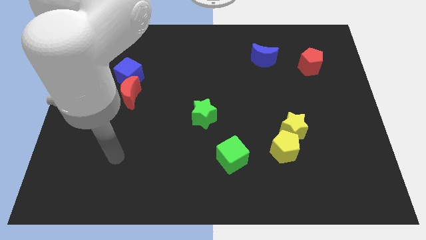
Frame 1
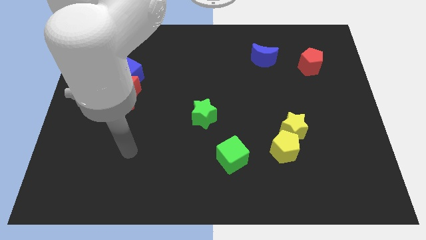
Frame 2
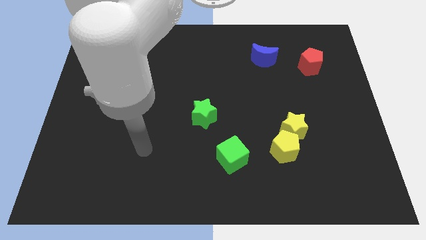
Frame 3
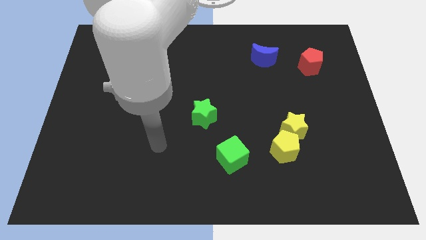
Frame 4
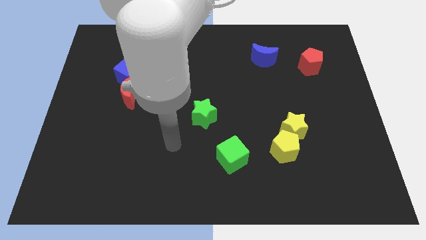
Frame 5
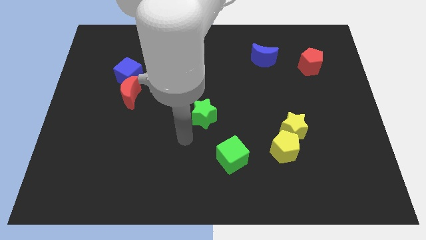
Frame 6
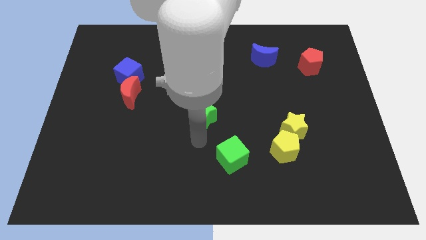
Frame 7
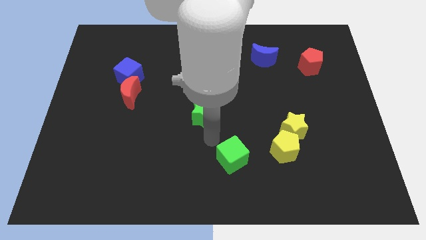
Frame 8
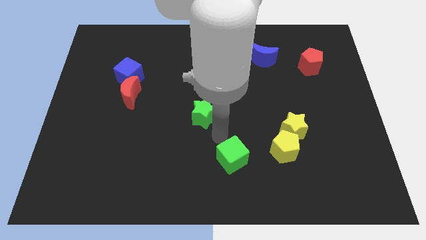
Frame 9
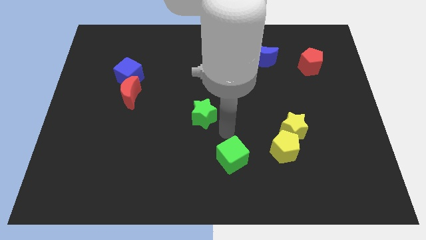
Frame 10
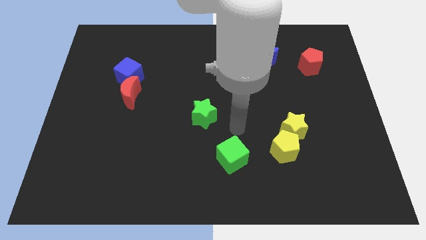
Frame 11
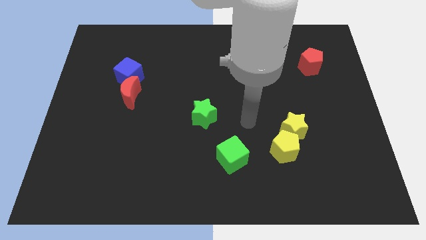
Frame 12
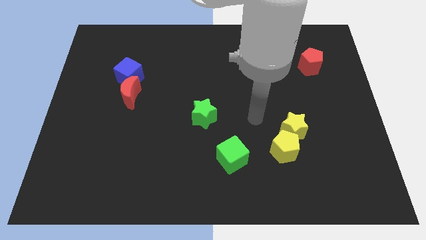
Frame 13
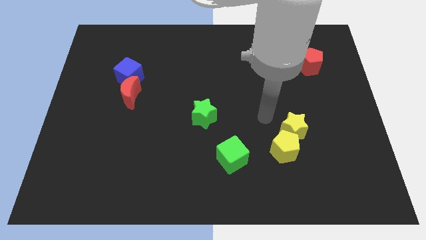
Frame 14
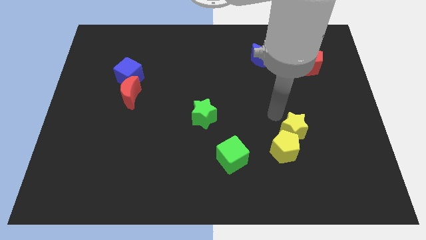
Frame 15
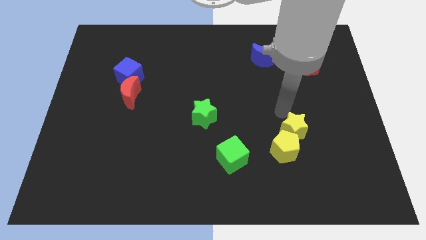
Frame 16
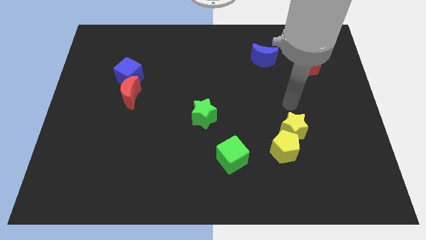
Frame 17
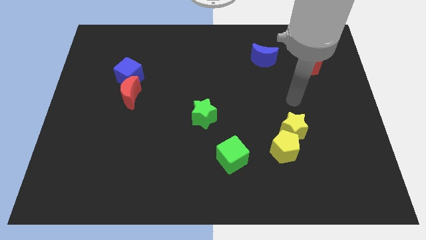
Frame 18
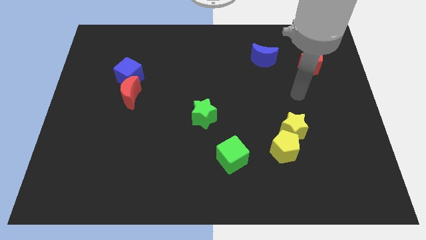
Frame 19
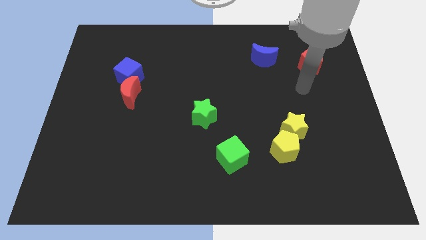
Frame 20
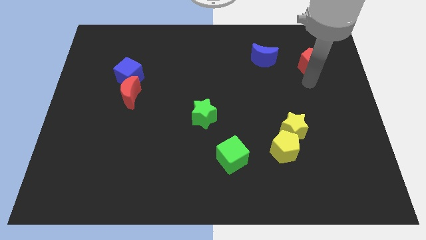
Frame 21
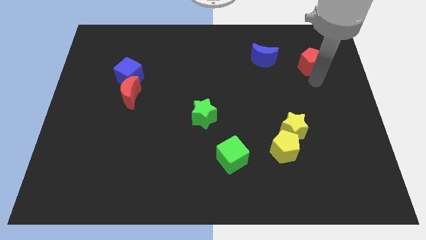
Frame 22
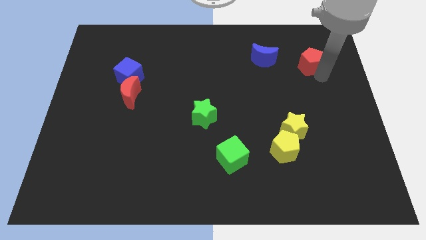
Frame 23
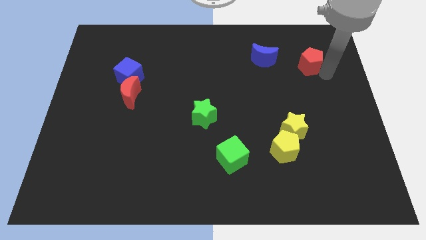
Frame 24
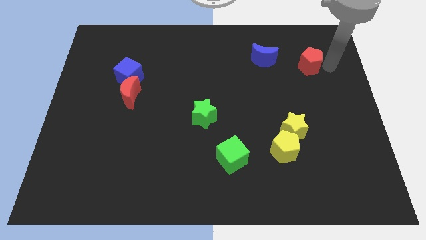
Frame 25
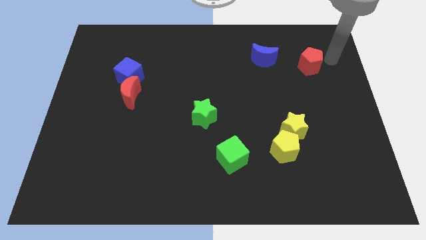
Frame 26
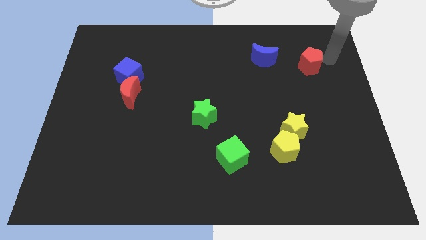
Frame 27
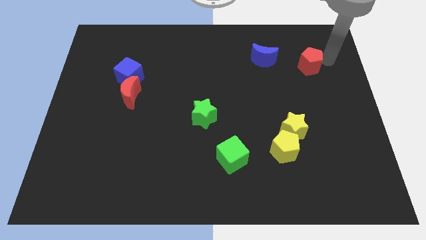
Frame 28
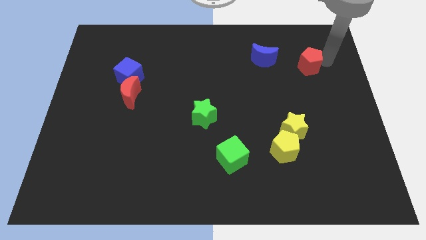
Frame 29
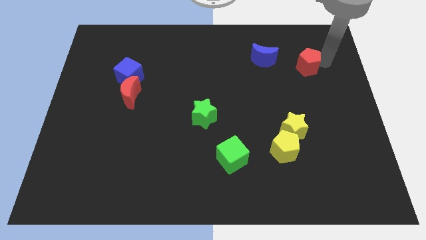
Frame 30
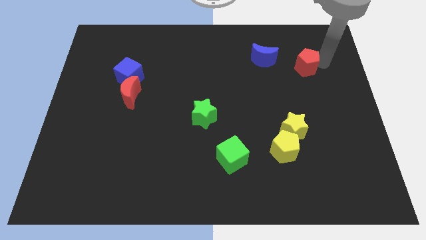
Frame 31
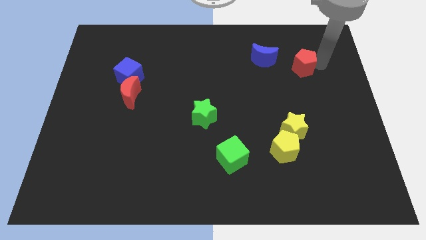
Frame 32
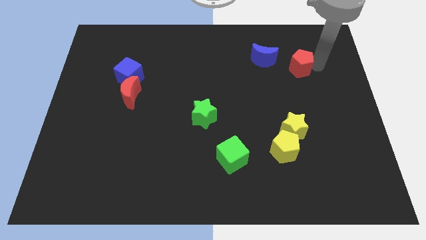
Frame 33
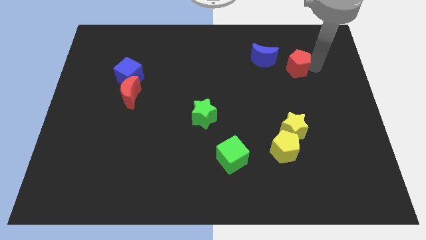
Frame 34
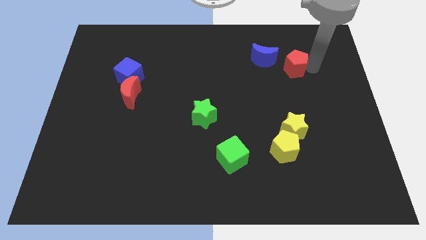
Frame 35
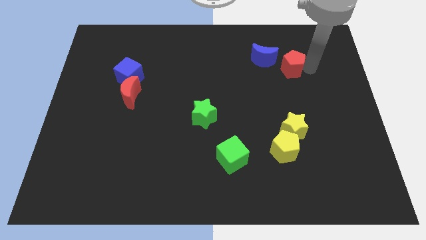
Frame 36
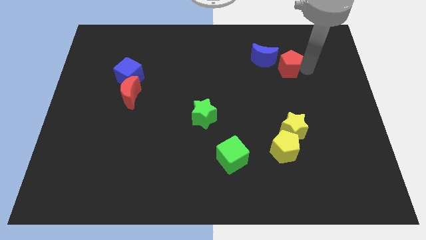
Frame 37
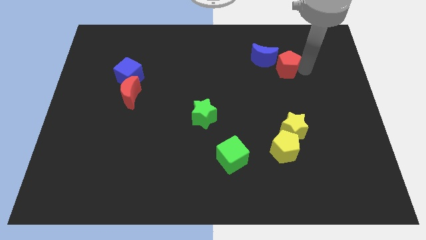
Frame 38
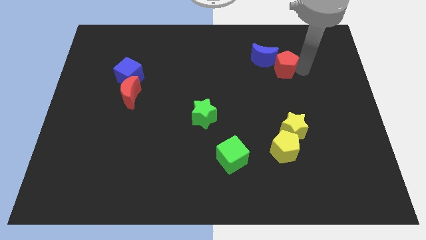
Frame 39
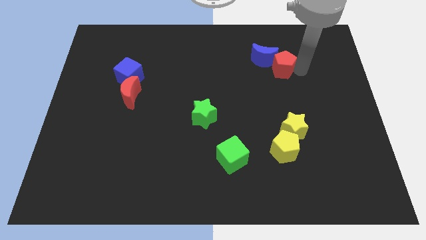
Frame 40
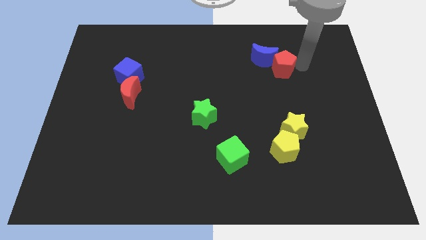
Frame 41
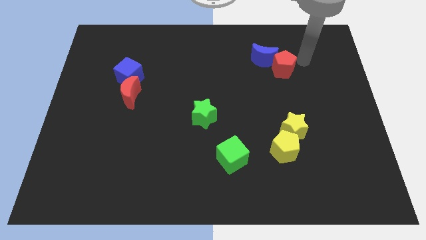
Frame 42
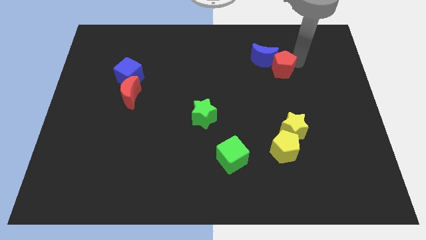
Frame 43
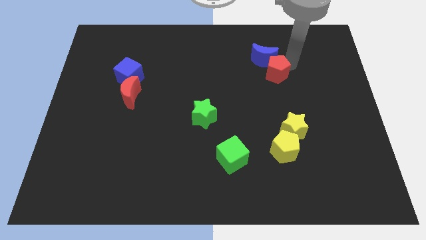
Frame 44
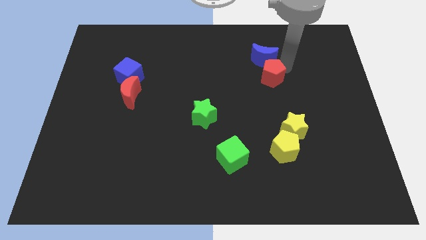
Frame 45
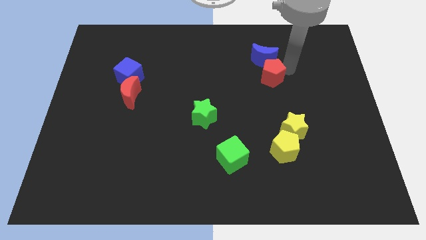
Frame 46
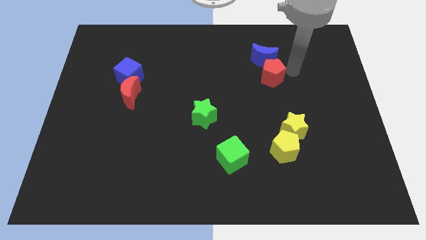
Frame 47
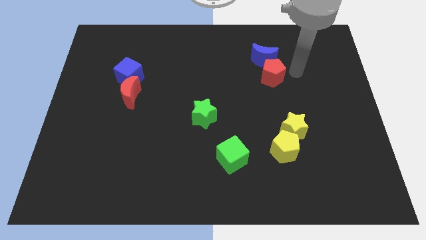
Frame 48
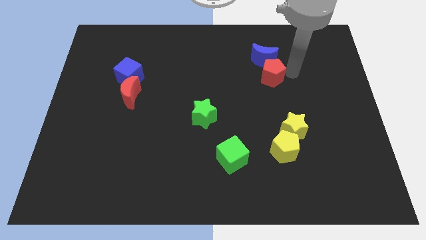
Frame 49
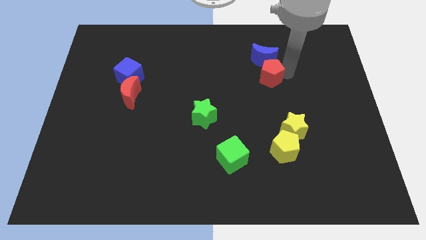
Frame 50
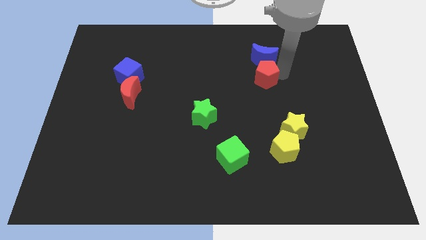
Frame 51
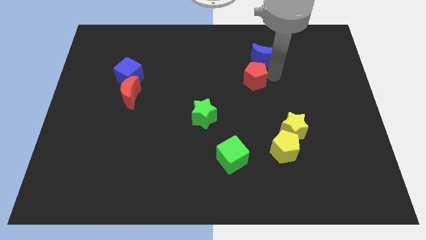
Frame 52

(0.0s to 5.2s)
push the red pentagon to the center

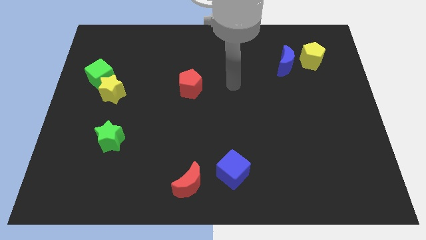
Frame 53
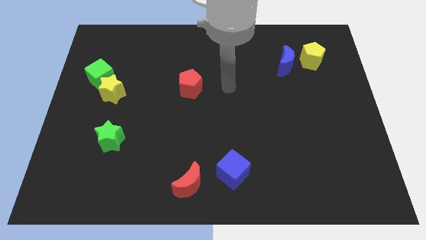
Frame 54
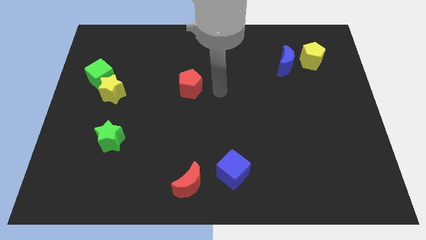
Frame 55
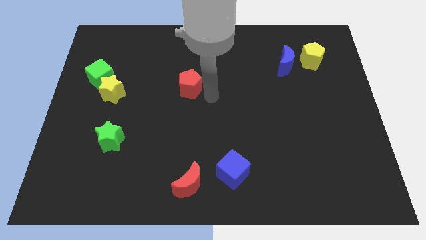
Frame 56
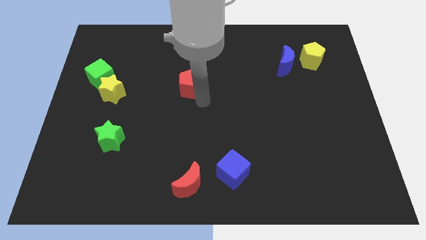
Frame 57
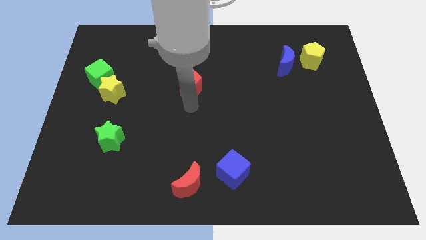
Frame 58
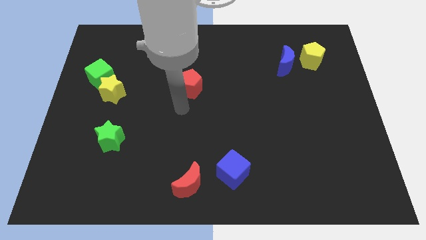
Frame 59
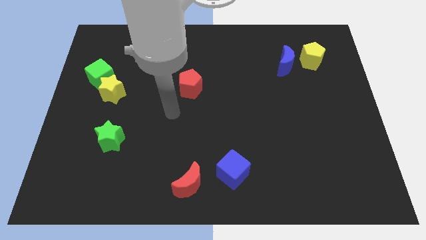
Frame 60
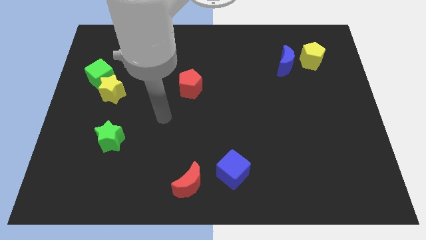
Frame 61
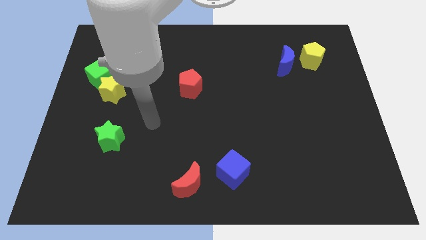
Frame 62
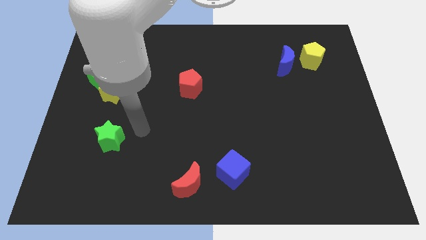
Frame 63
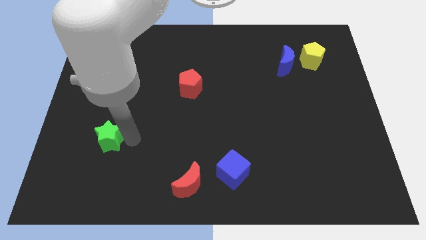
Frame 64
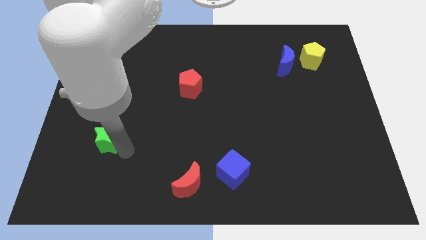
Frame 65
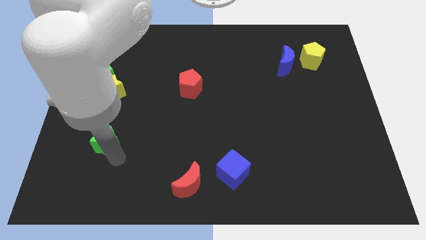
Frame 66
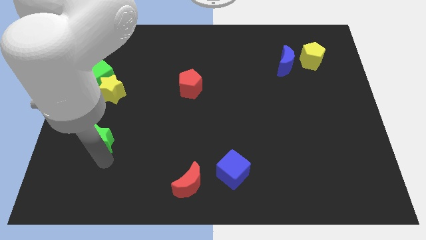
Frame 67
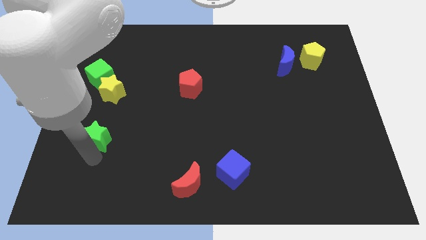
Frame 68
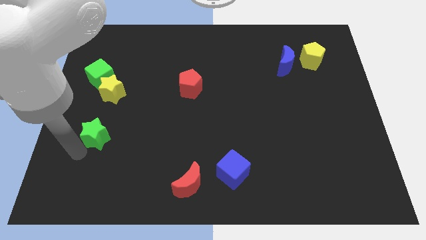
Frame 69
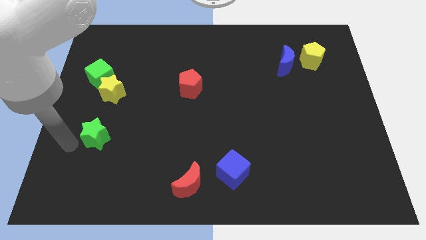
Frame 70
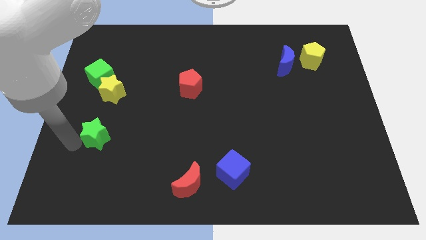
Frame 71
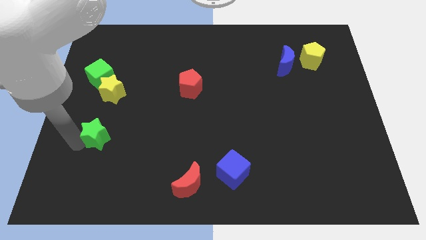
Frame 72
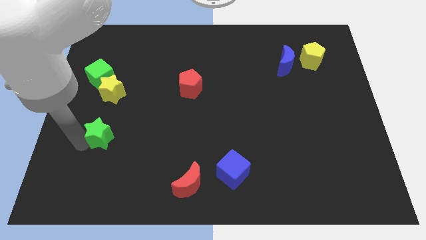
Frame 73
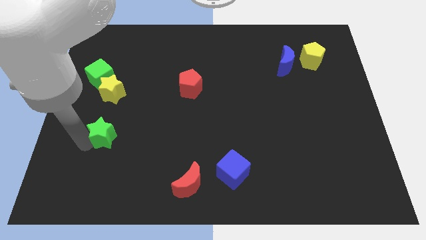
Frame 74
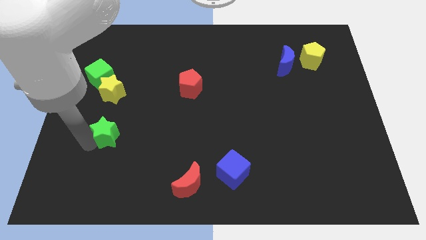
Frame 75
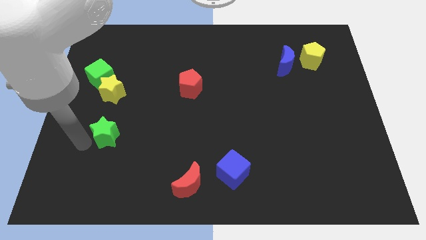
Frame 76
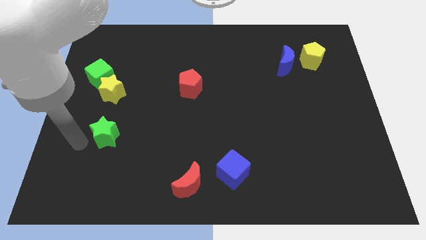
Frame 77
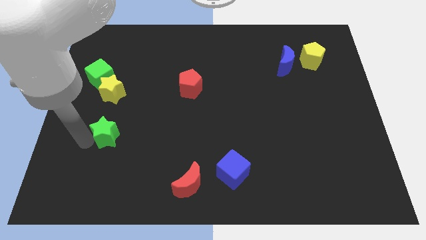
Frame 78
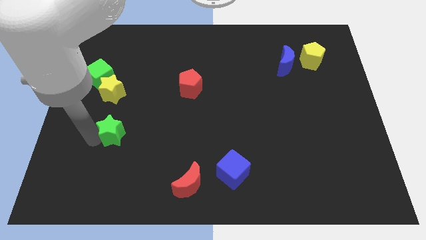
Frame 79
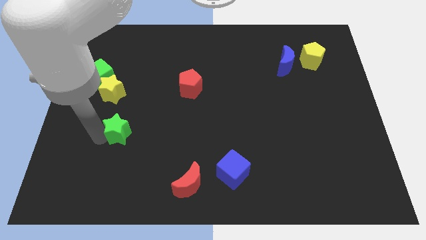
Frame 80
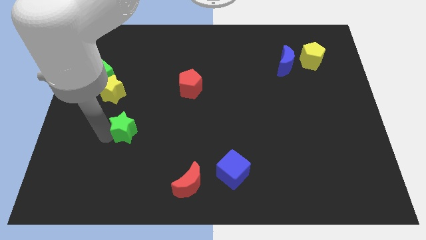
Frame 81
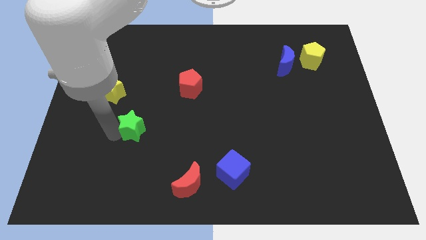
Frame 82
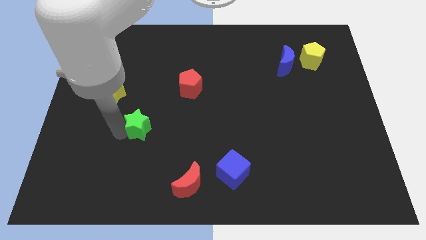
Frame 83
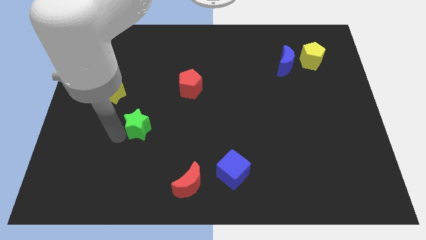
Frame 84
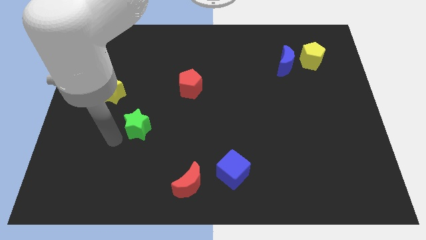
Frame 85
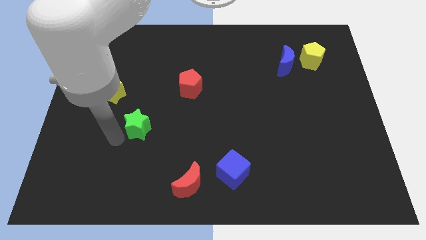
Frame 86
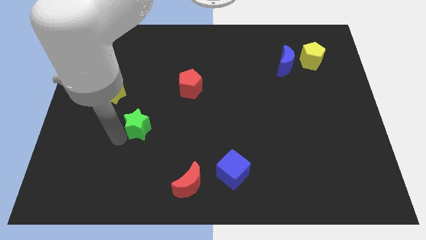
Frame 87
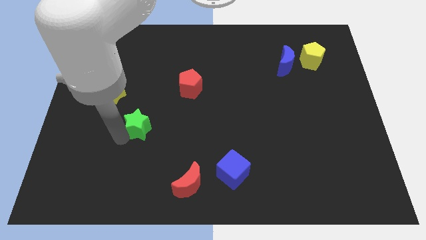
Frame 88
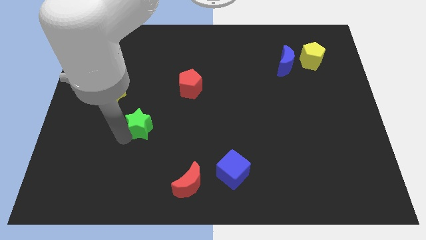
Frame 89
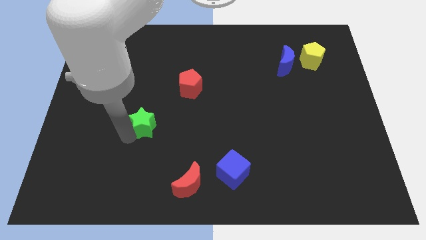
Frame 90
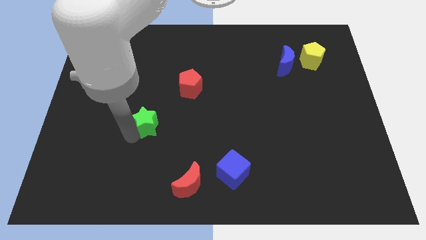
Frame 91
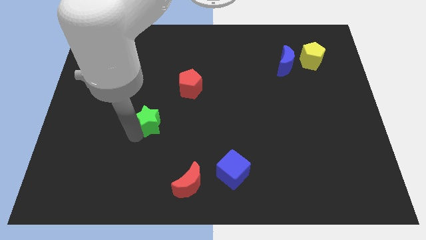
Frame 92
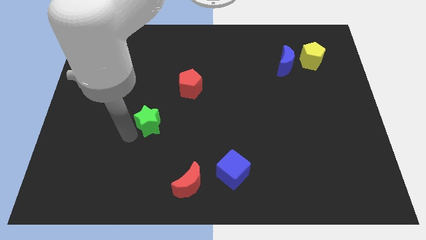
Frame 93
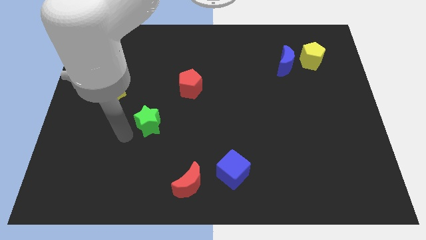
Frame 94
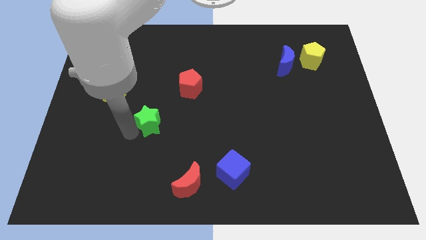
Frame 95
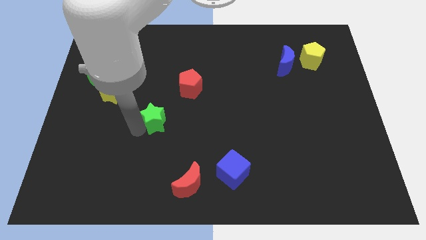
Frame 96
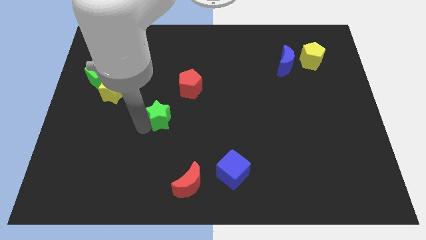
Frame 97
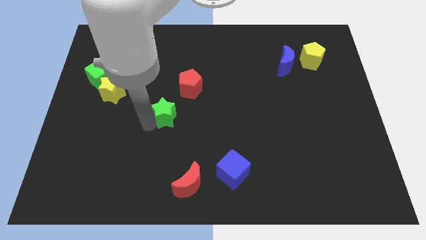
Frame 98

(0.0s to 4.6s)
move the green star to the center of the board
